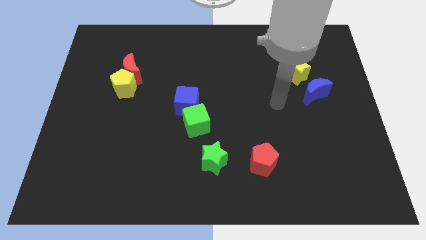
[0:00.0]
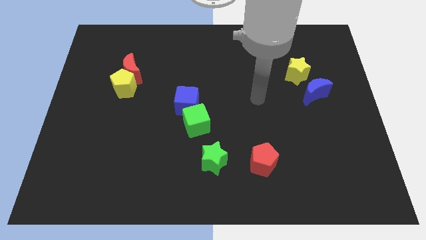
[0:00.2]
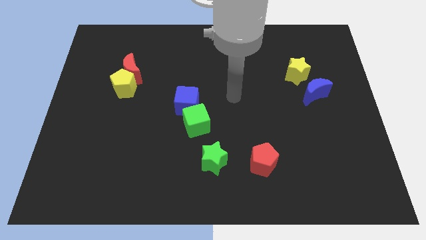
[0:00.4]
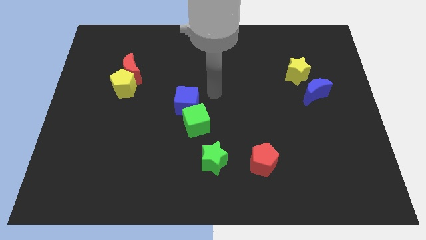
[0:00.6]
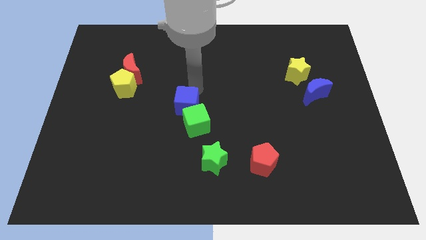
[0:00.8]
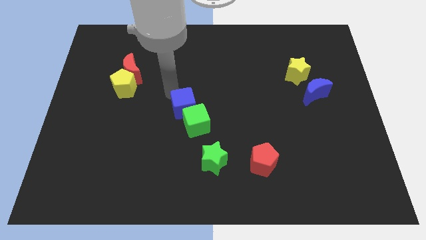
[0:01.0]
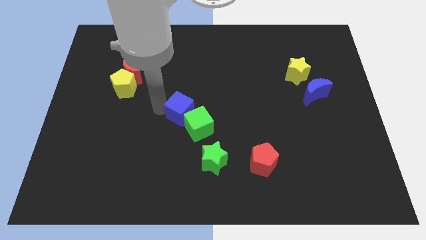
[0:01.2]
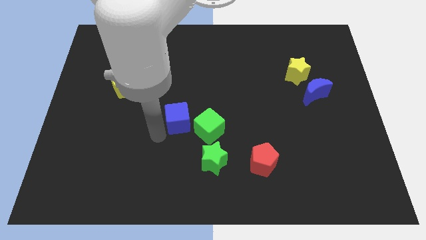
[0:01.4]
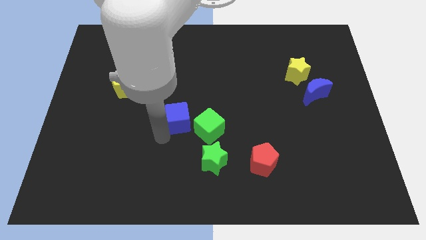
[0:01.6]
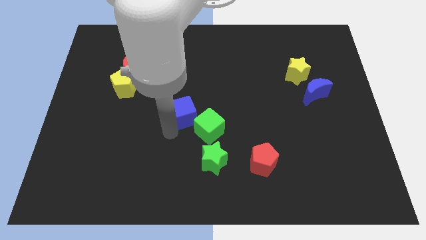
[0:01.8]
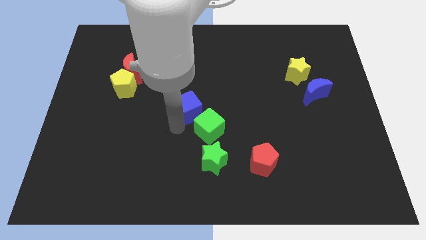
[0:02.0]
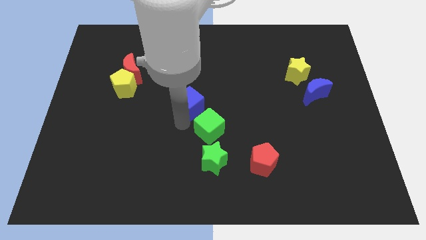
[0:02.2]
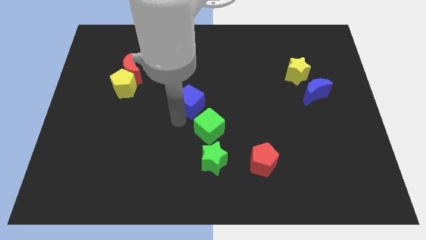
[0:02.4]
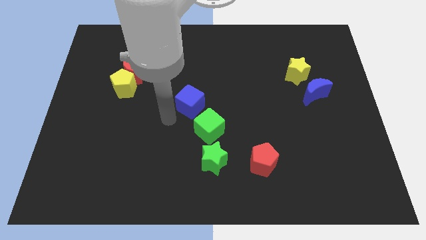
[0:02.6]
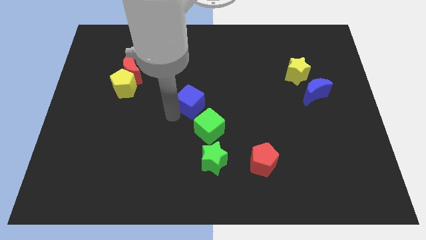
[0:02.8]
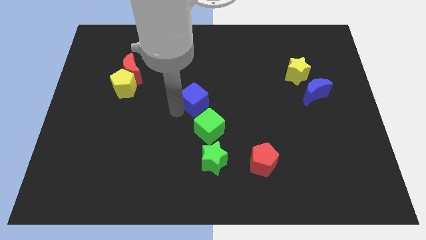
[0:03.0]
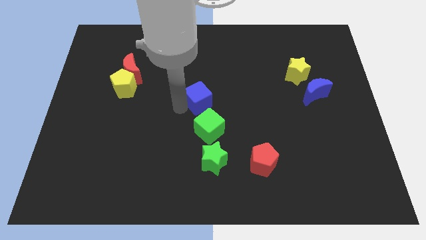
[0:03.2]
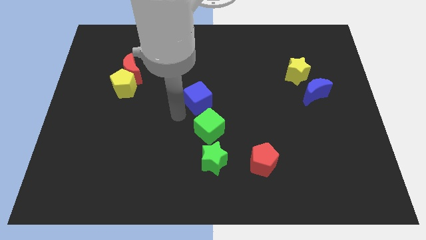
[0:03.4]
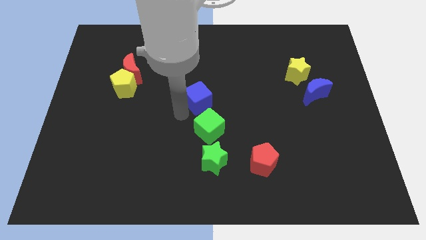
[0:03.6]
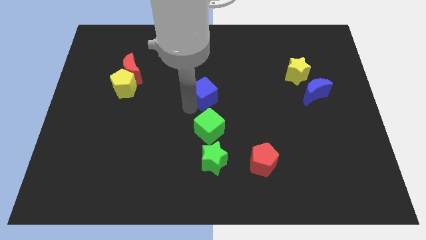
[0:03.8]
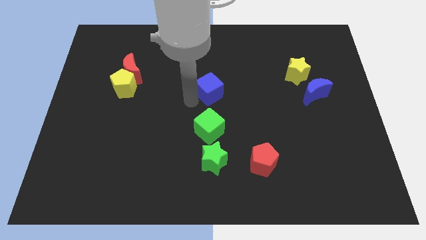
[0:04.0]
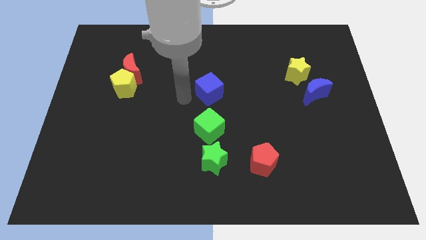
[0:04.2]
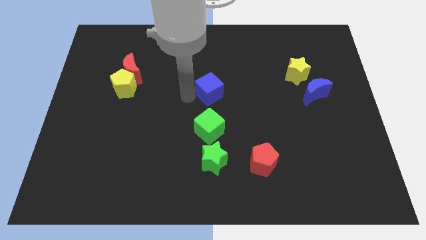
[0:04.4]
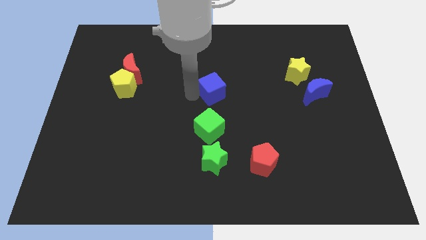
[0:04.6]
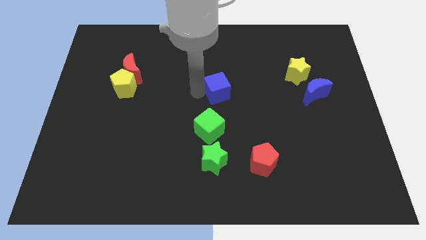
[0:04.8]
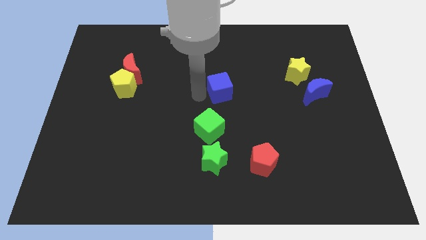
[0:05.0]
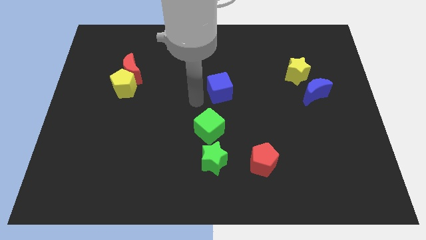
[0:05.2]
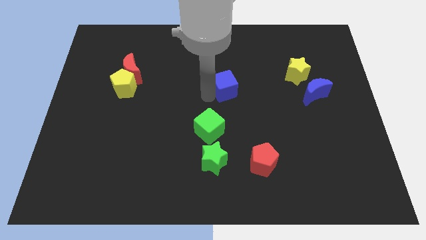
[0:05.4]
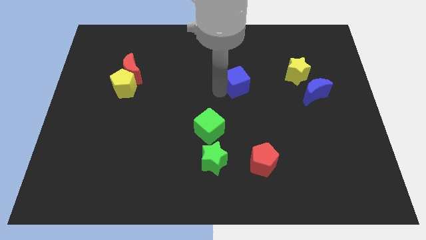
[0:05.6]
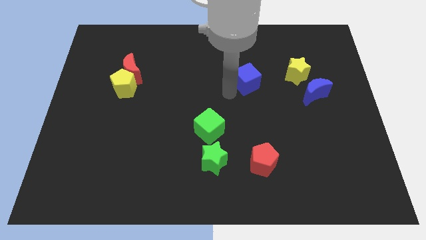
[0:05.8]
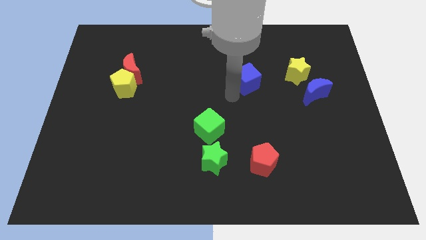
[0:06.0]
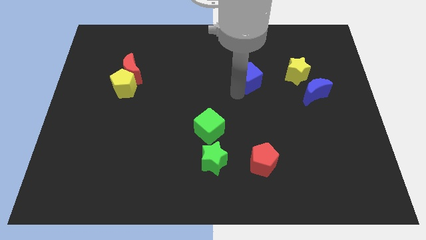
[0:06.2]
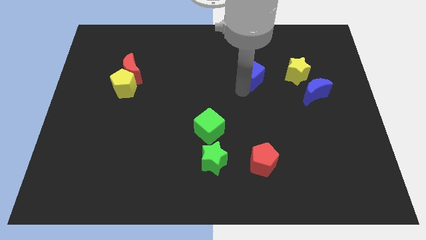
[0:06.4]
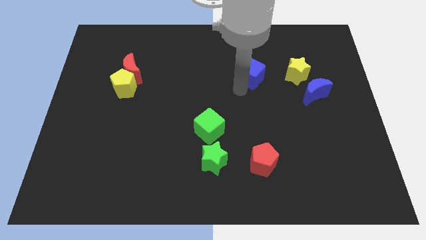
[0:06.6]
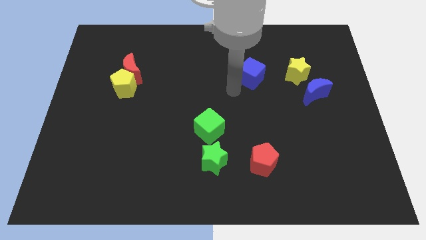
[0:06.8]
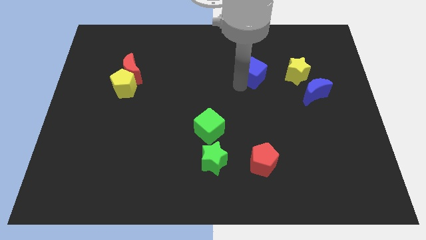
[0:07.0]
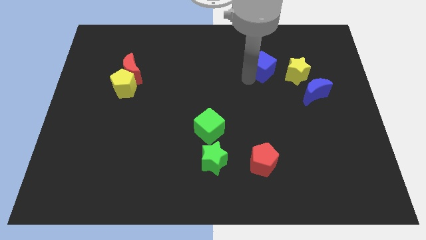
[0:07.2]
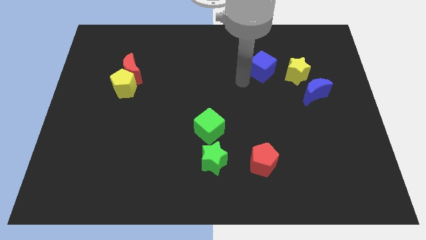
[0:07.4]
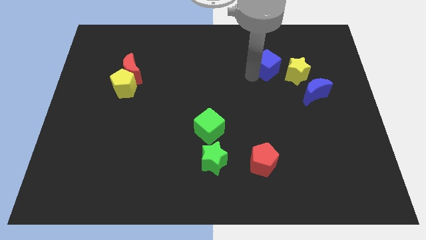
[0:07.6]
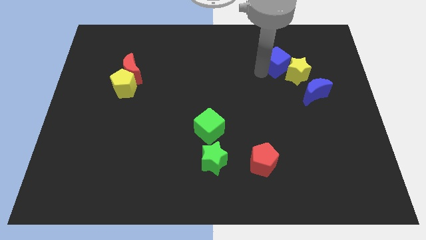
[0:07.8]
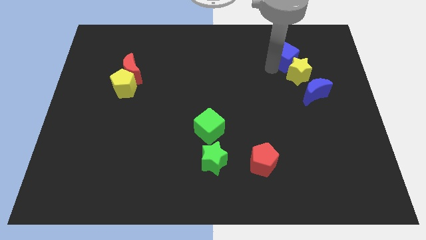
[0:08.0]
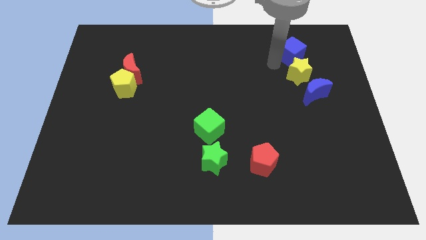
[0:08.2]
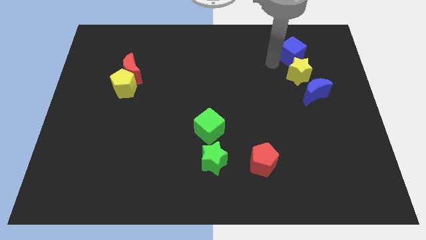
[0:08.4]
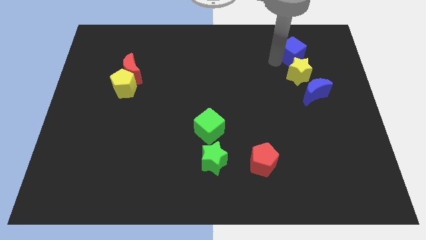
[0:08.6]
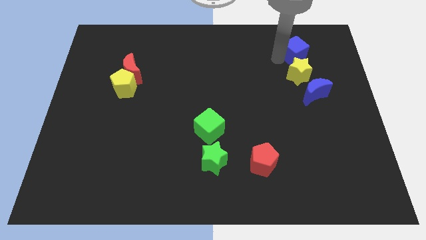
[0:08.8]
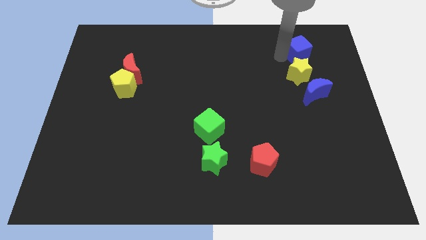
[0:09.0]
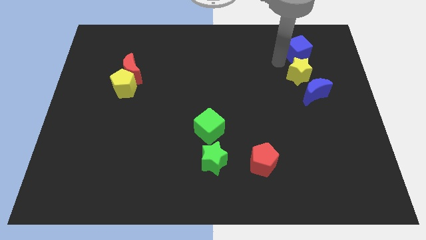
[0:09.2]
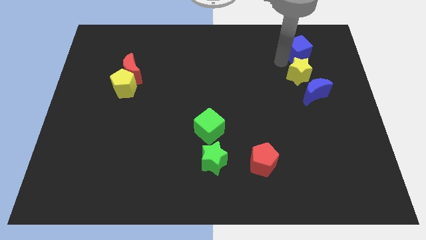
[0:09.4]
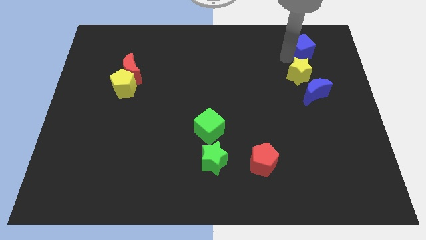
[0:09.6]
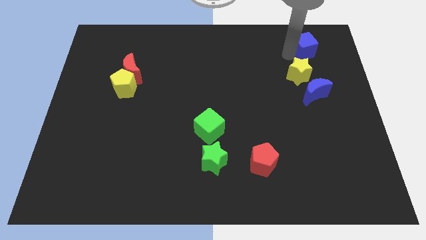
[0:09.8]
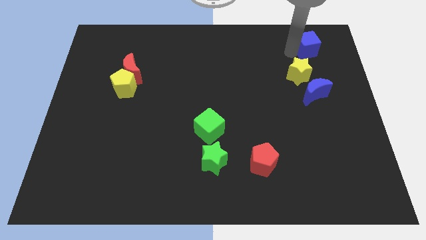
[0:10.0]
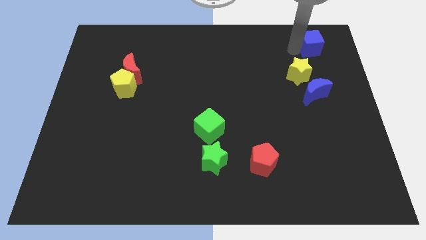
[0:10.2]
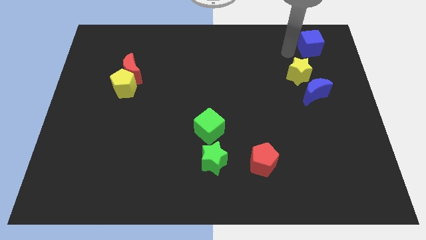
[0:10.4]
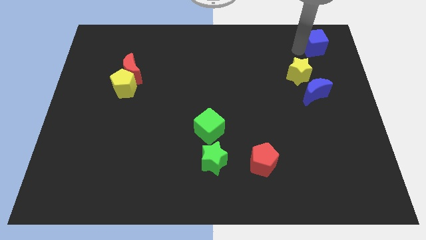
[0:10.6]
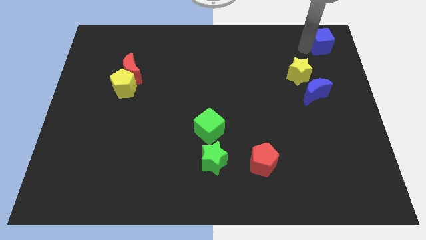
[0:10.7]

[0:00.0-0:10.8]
push the blue cube to the top right corner

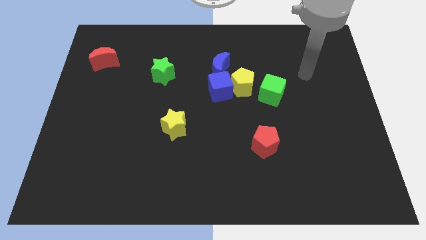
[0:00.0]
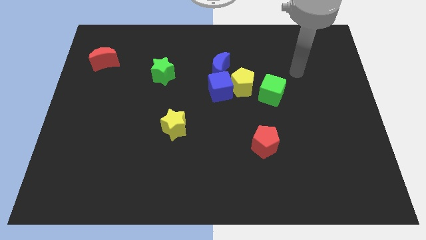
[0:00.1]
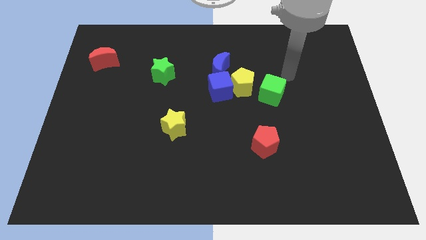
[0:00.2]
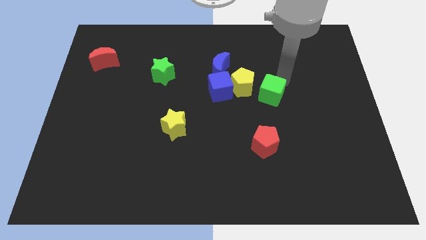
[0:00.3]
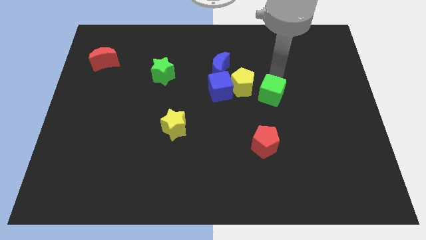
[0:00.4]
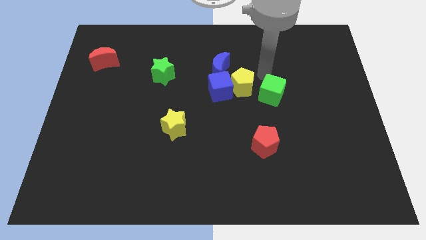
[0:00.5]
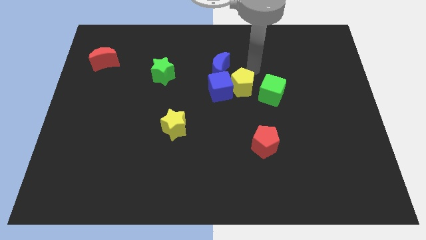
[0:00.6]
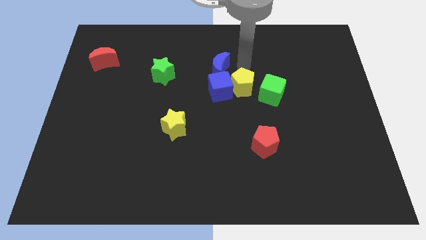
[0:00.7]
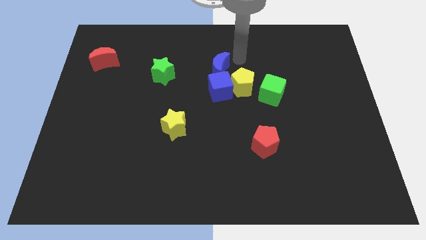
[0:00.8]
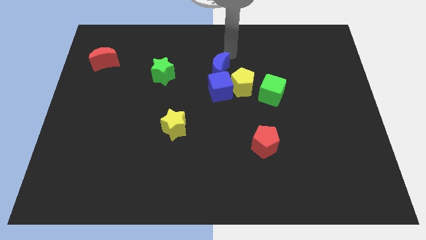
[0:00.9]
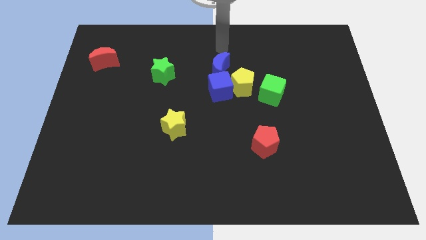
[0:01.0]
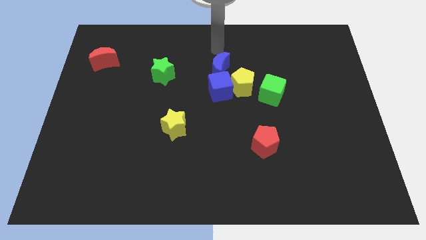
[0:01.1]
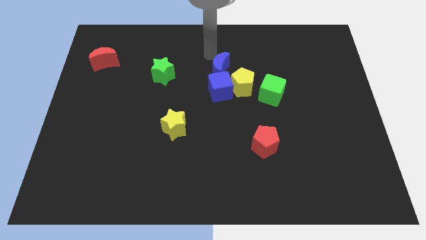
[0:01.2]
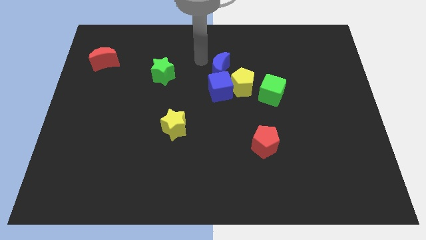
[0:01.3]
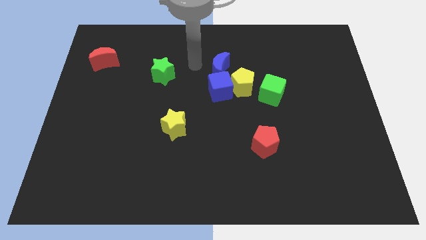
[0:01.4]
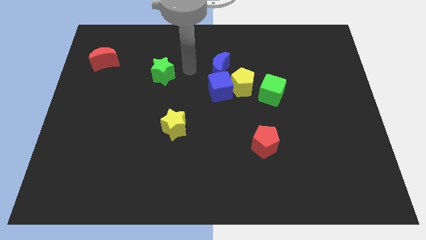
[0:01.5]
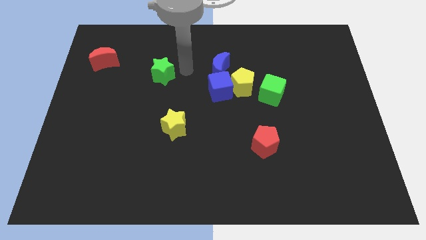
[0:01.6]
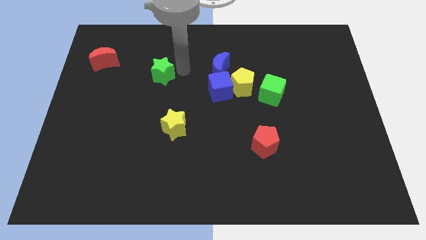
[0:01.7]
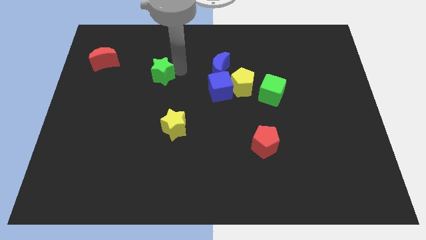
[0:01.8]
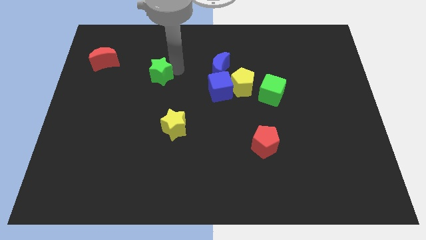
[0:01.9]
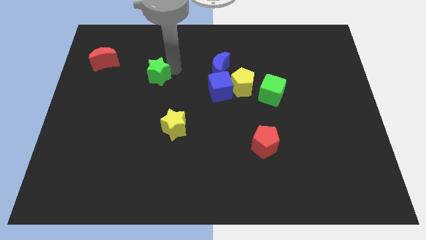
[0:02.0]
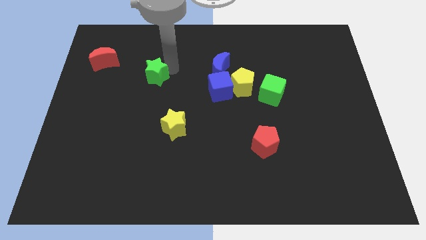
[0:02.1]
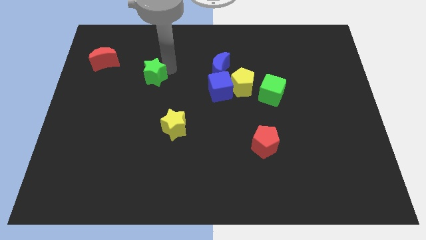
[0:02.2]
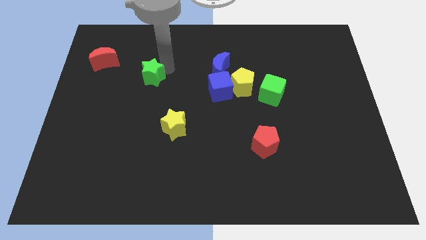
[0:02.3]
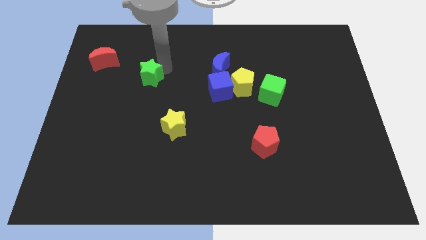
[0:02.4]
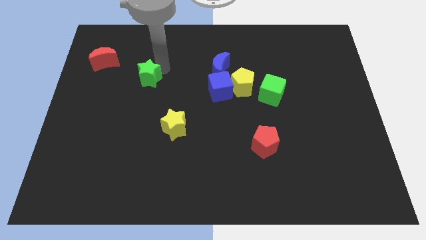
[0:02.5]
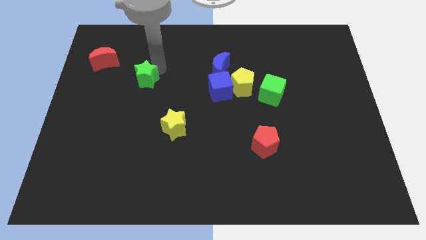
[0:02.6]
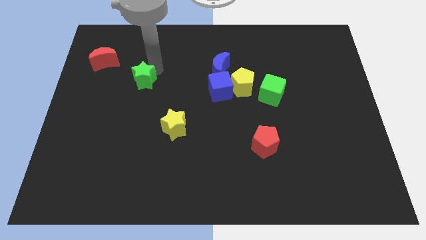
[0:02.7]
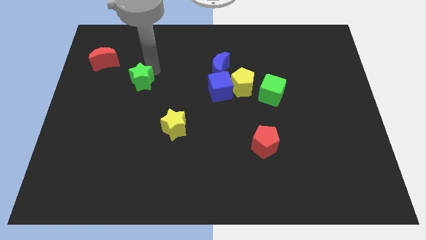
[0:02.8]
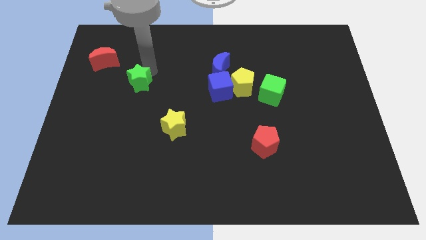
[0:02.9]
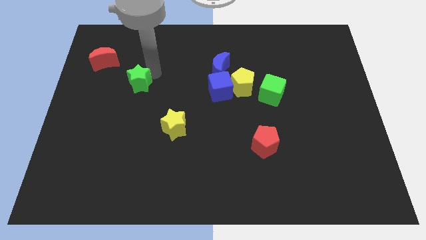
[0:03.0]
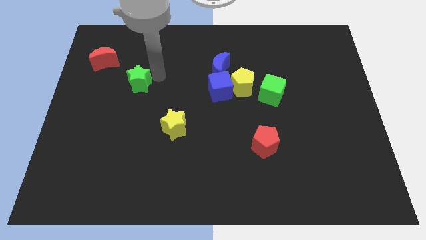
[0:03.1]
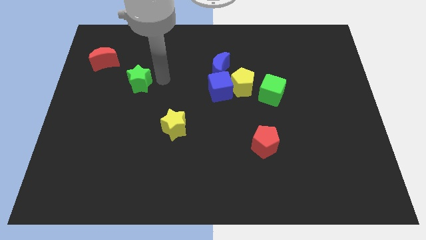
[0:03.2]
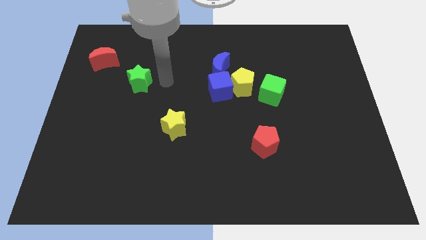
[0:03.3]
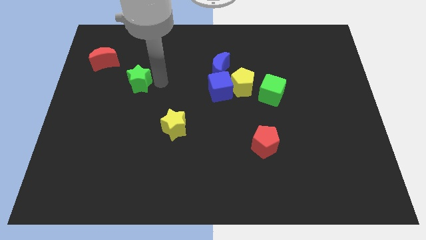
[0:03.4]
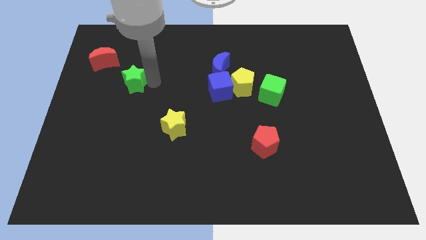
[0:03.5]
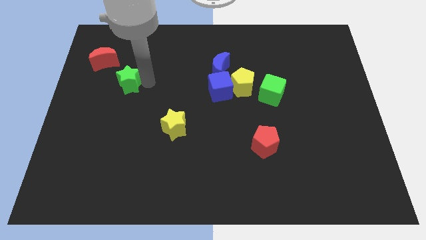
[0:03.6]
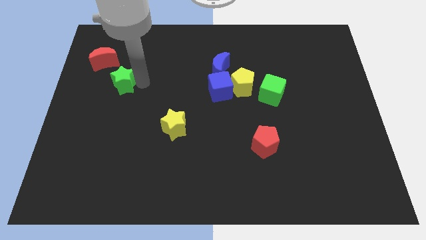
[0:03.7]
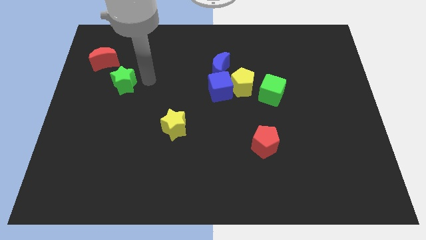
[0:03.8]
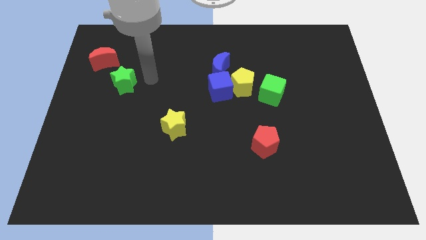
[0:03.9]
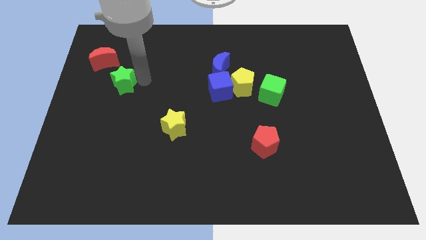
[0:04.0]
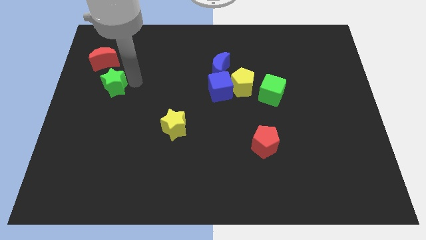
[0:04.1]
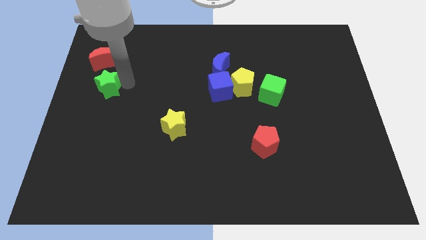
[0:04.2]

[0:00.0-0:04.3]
move the green star to the left side
